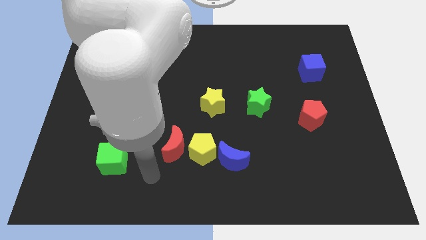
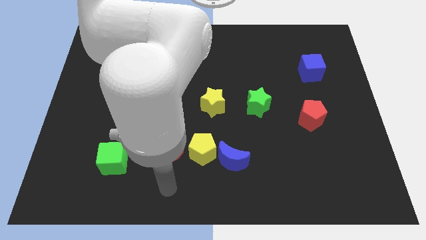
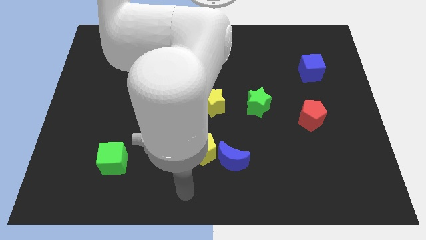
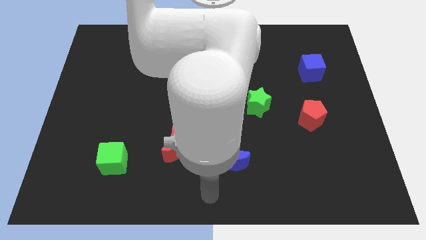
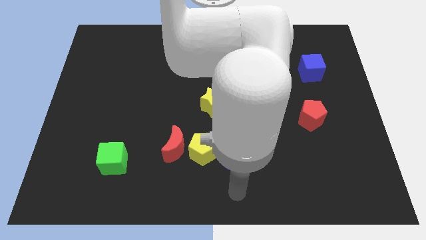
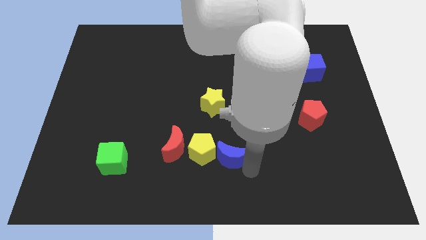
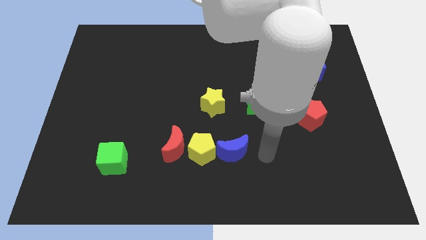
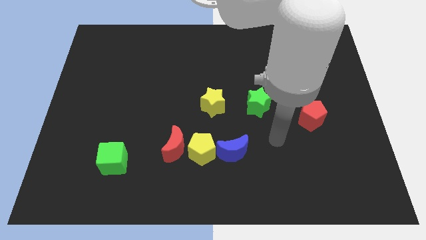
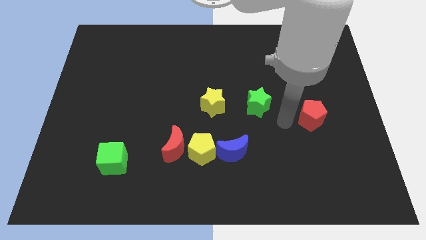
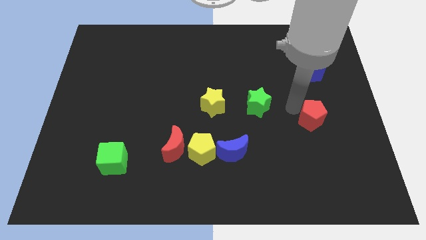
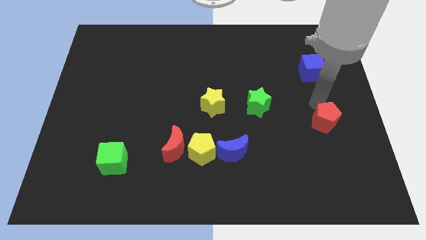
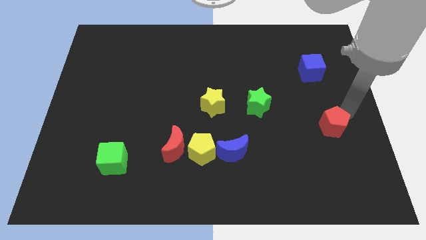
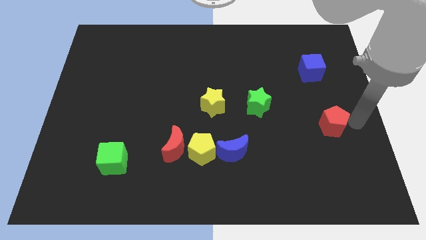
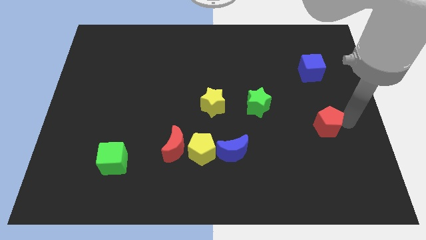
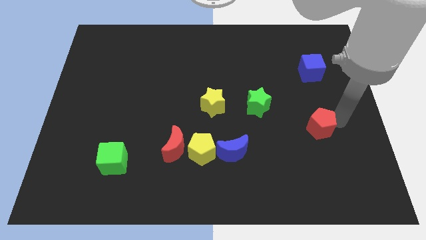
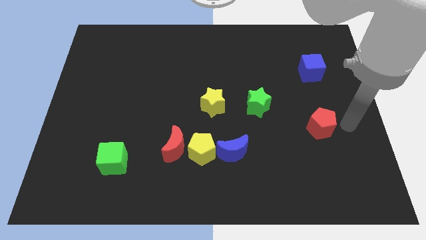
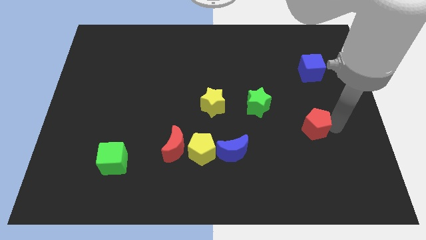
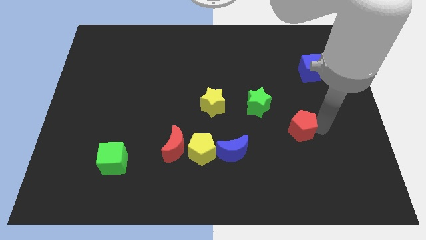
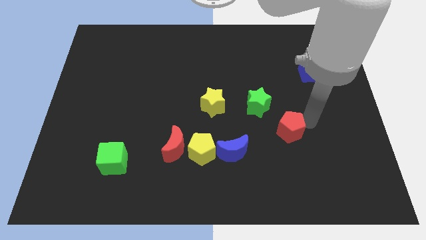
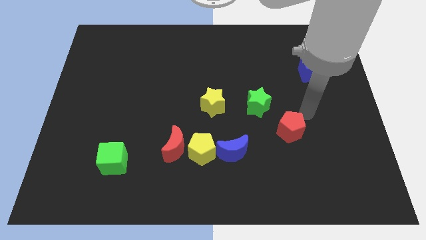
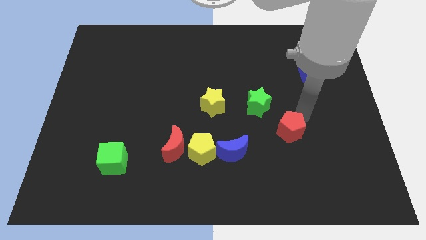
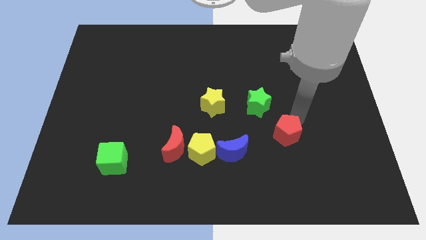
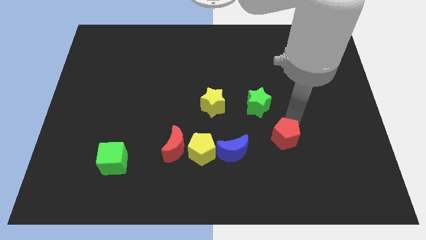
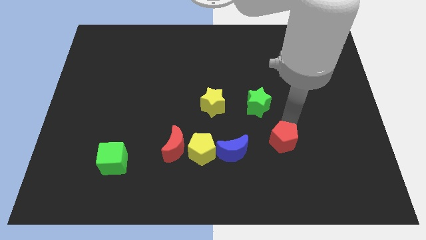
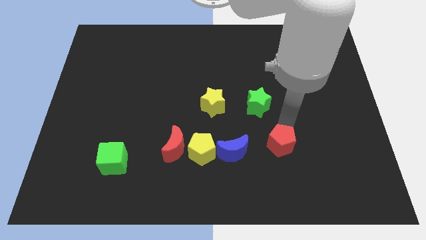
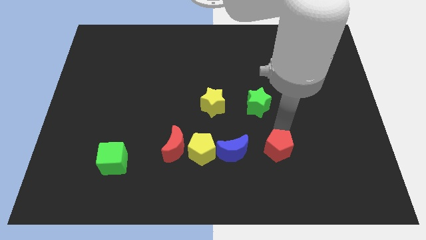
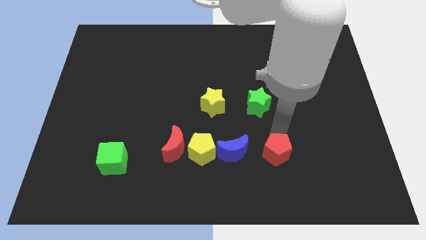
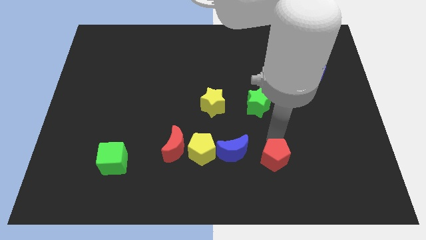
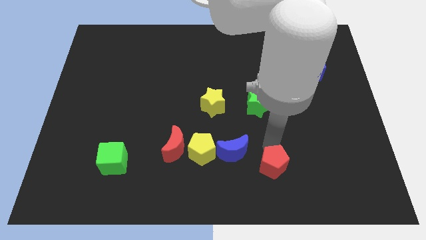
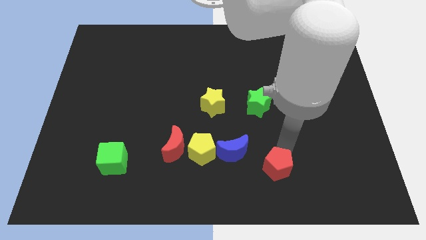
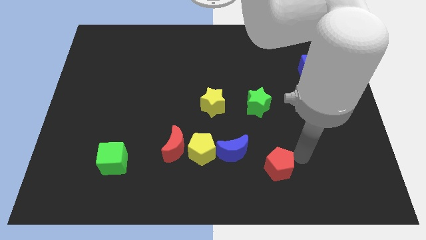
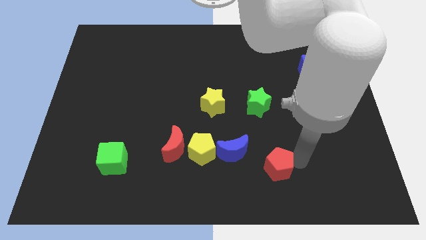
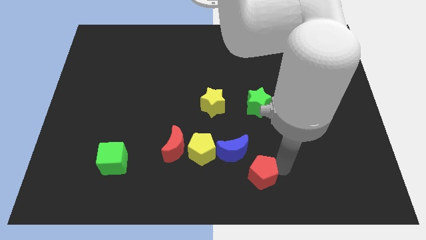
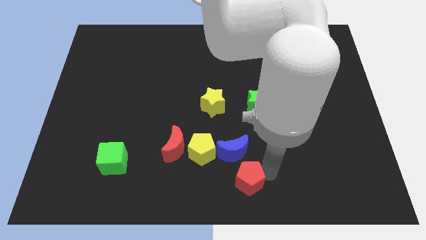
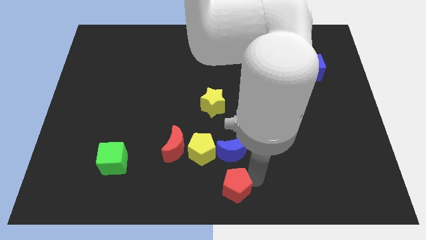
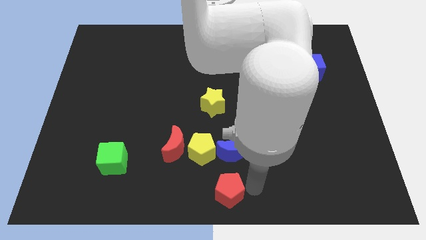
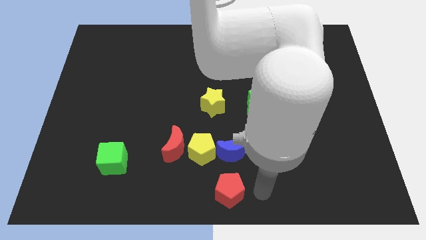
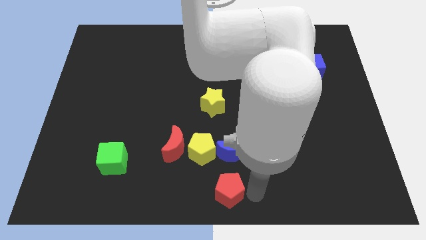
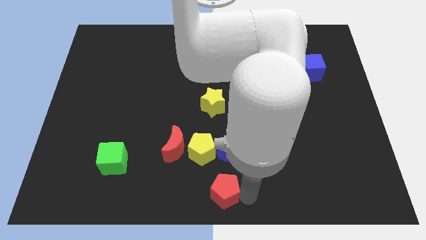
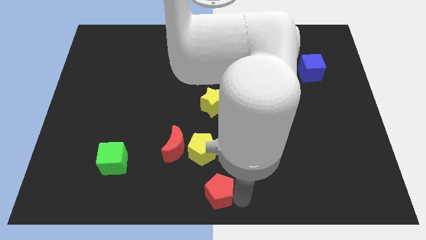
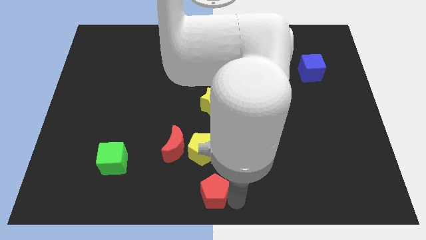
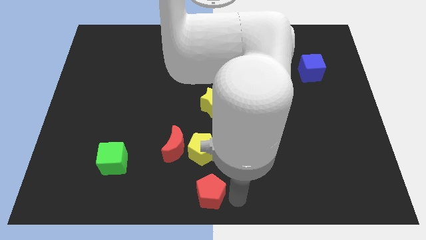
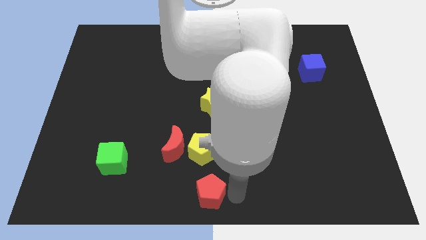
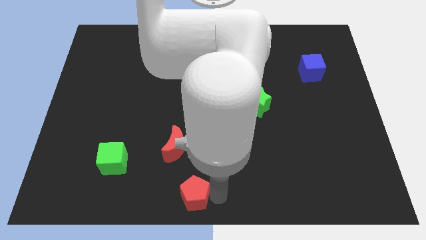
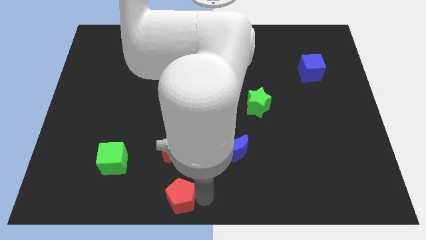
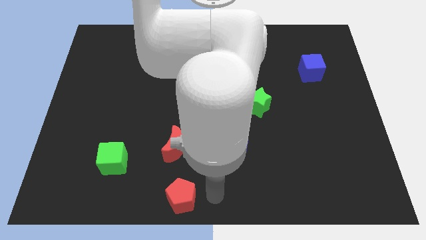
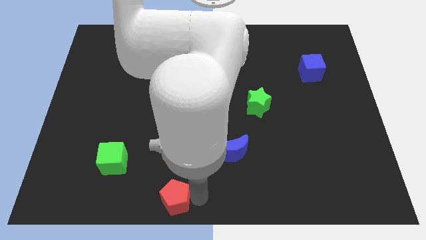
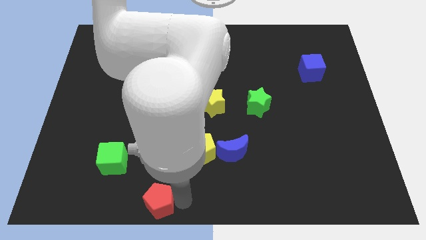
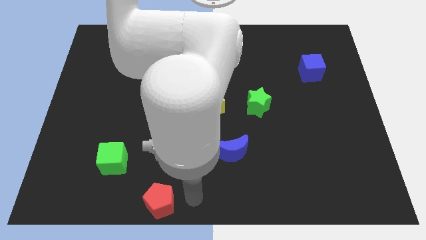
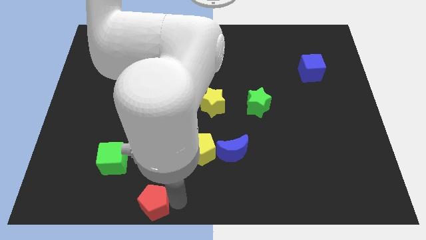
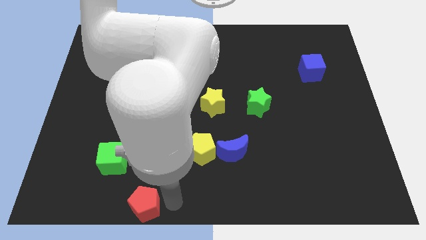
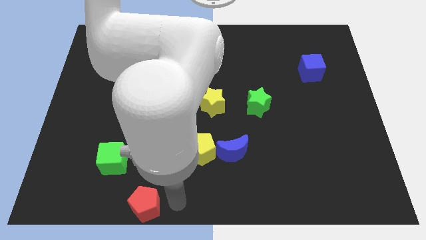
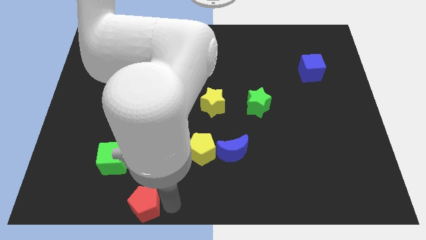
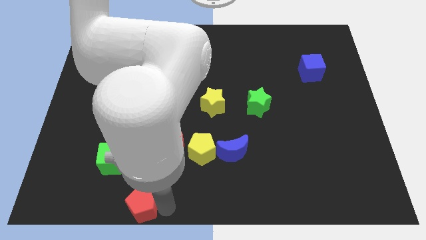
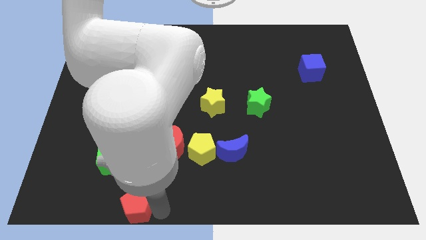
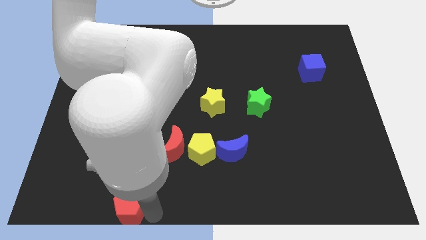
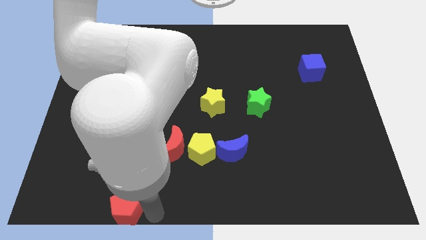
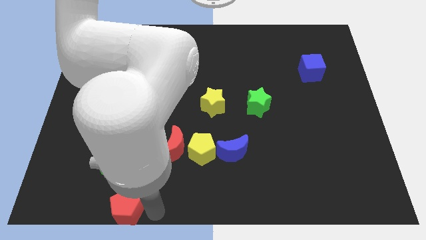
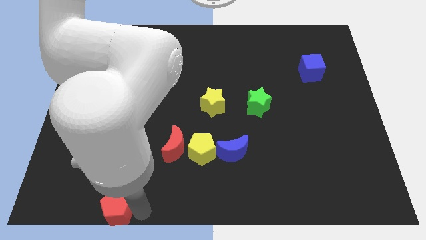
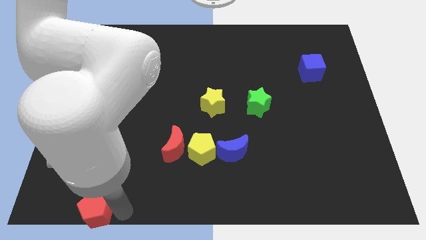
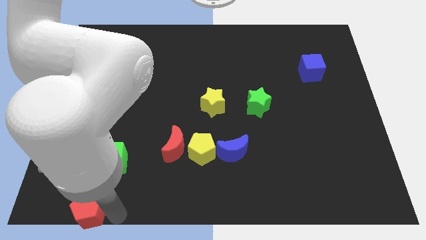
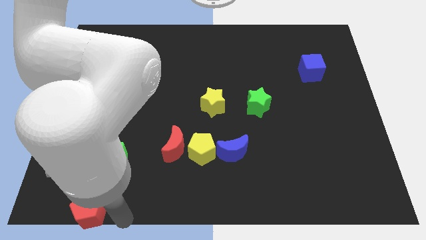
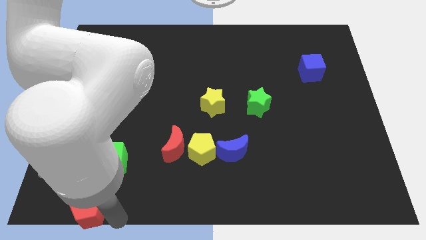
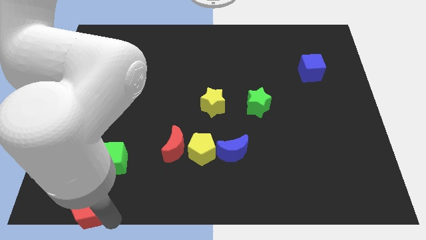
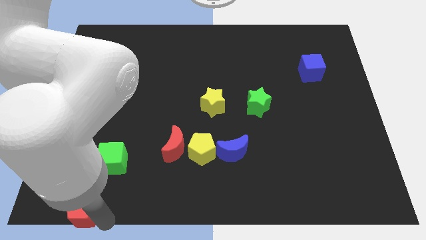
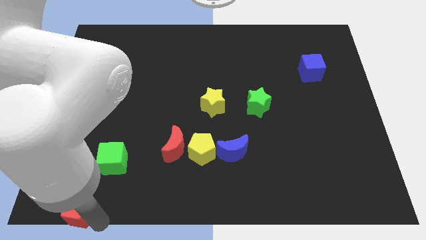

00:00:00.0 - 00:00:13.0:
move the red pentagon to the bottom left

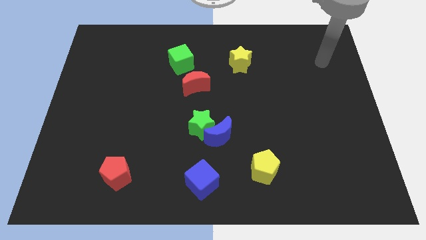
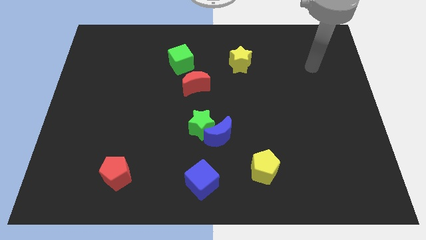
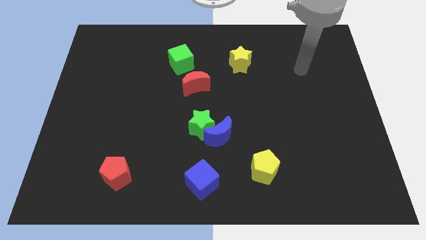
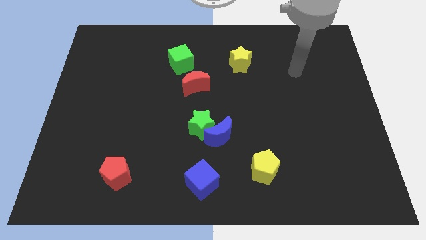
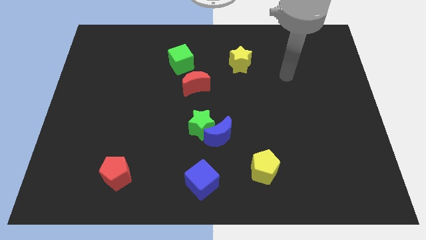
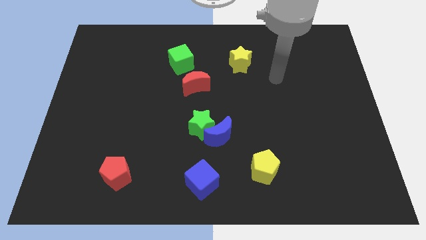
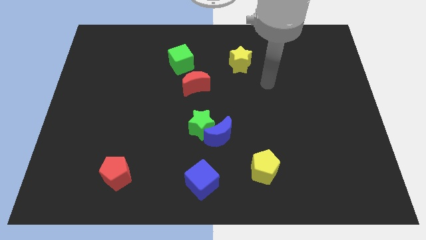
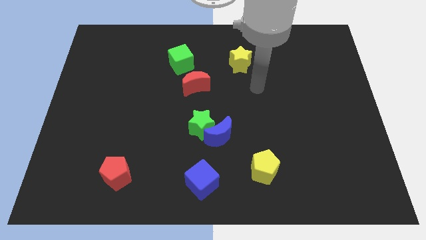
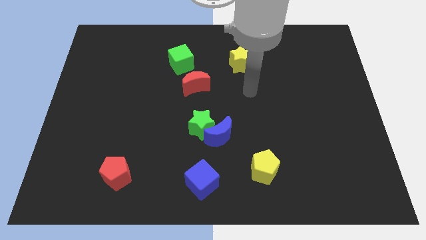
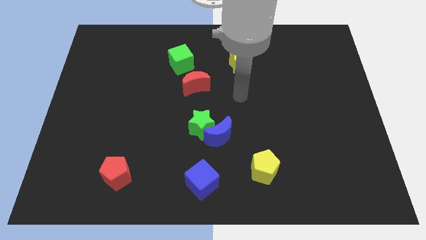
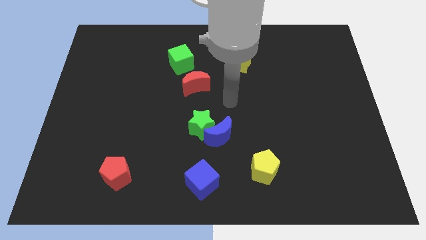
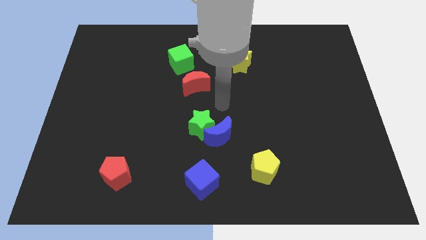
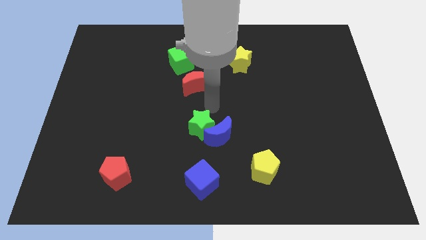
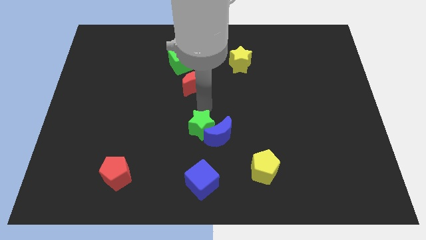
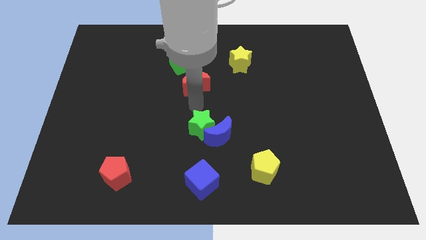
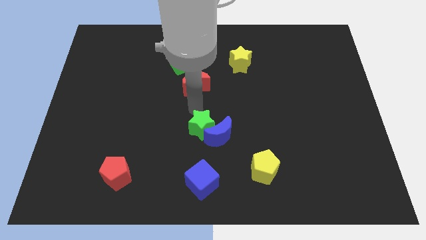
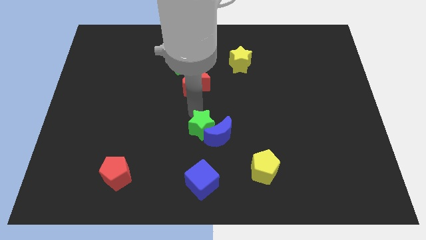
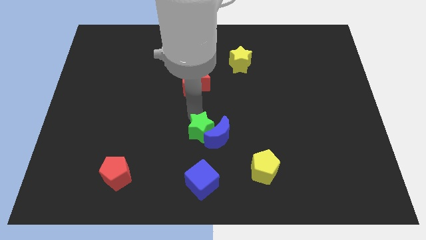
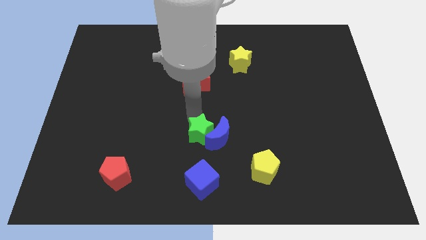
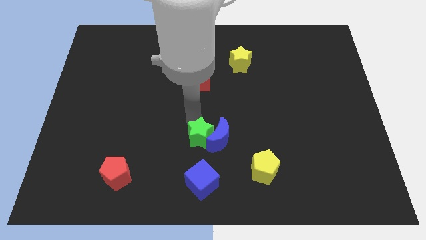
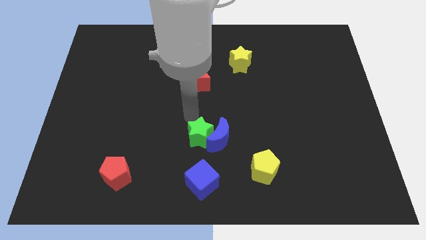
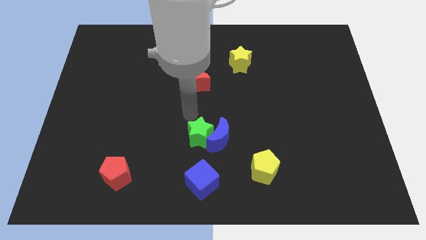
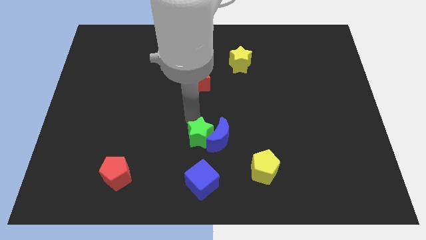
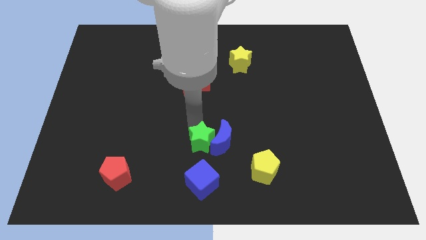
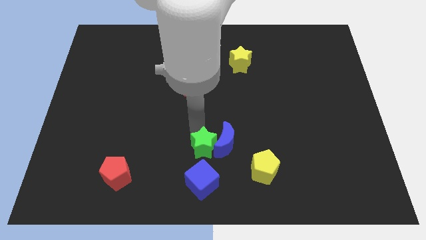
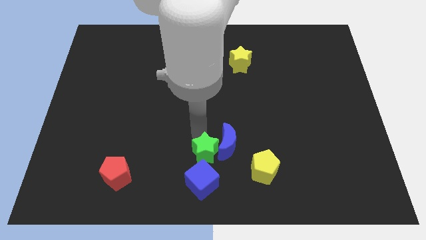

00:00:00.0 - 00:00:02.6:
move the green star to the bottom side
